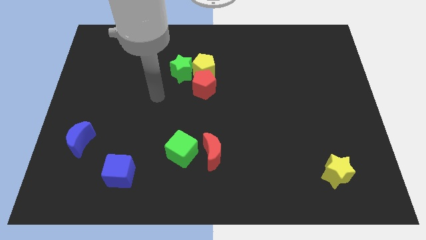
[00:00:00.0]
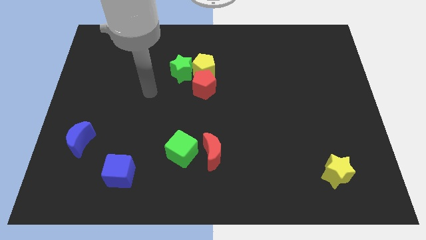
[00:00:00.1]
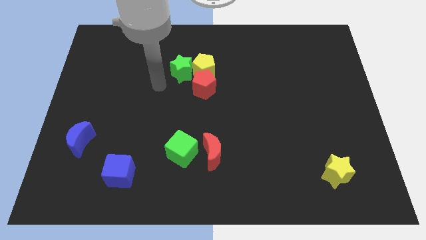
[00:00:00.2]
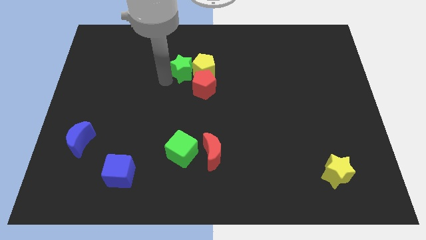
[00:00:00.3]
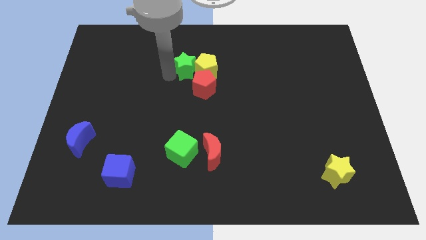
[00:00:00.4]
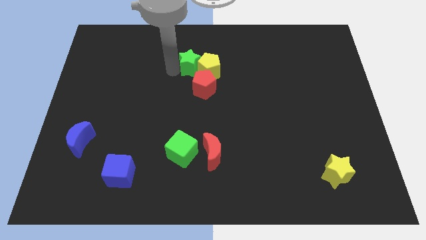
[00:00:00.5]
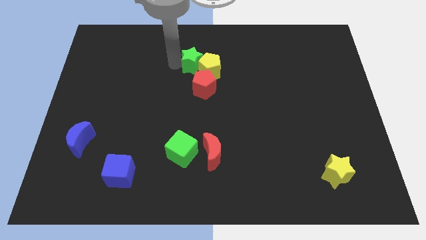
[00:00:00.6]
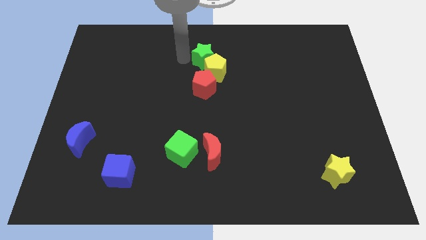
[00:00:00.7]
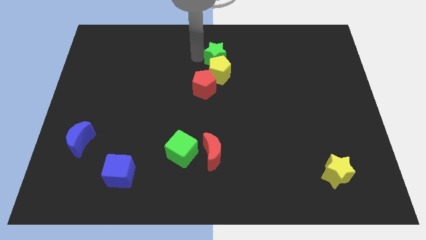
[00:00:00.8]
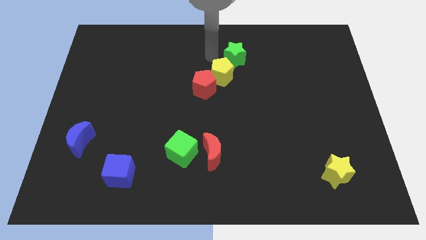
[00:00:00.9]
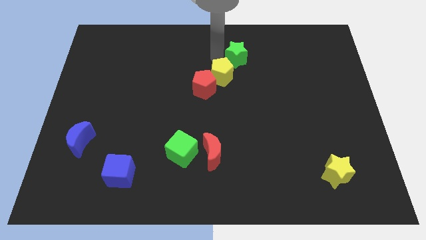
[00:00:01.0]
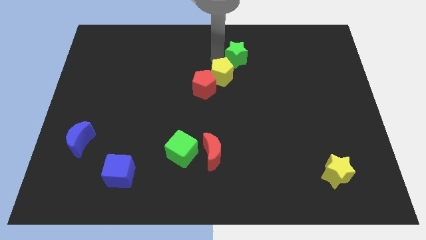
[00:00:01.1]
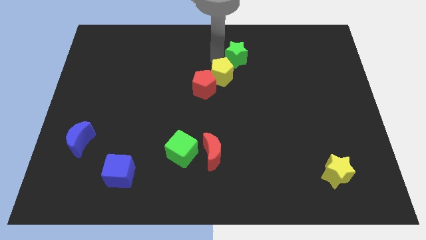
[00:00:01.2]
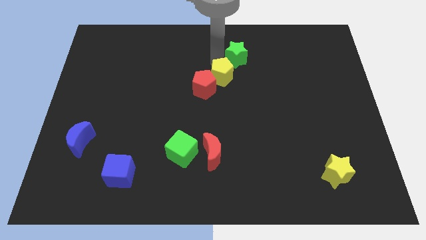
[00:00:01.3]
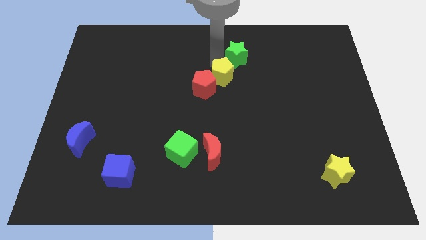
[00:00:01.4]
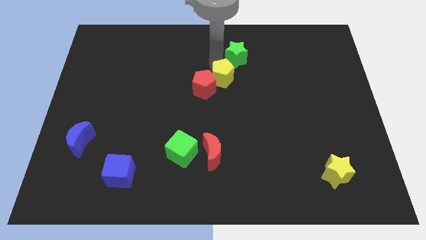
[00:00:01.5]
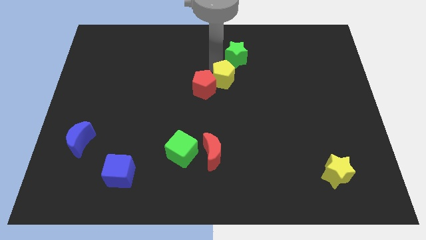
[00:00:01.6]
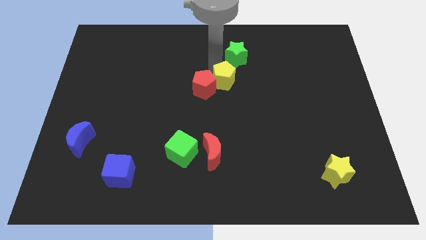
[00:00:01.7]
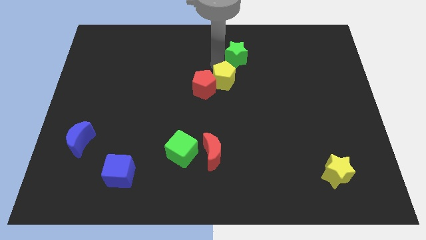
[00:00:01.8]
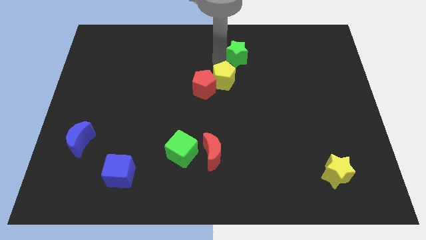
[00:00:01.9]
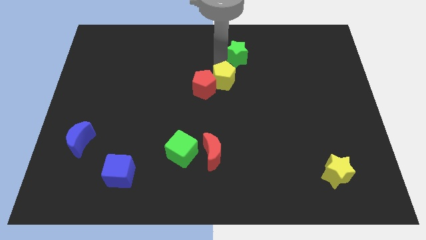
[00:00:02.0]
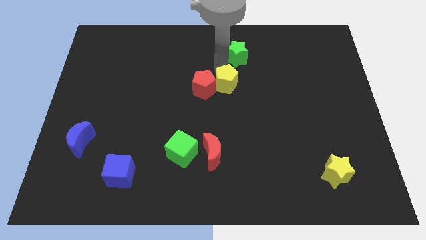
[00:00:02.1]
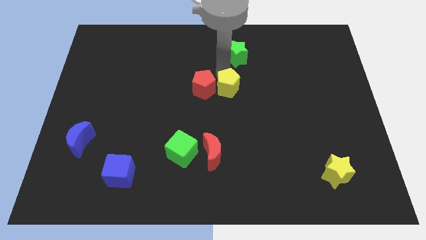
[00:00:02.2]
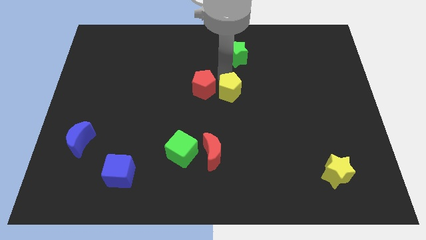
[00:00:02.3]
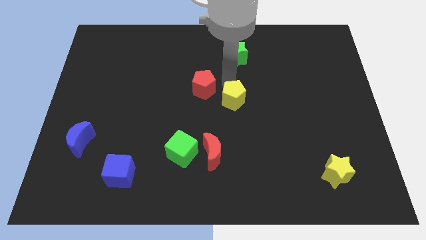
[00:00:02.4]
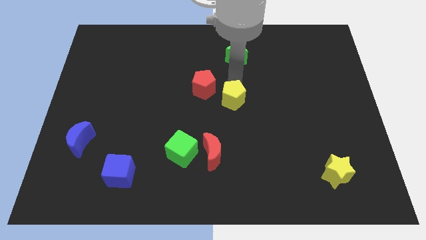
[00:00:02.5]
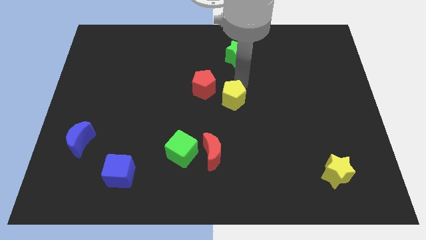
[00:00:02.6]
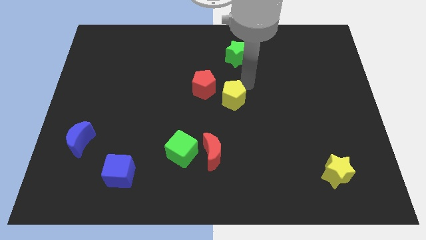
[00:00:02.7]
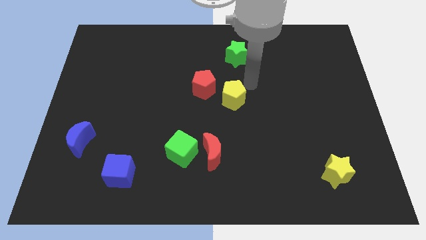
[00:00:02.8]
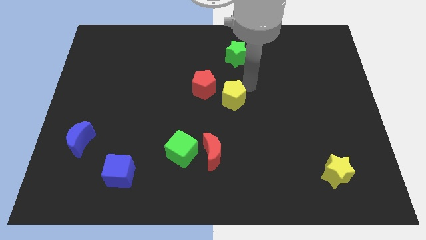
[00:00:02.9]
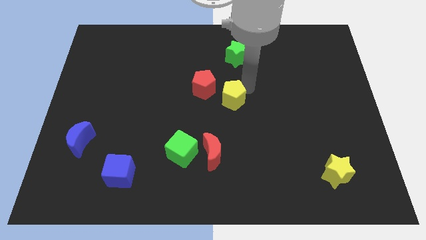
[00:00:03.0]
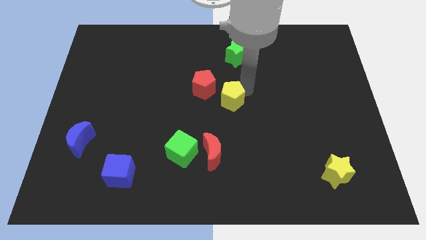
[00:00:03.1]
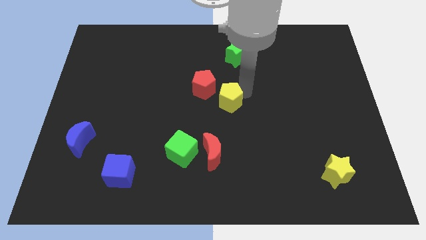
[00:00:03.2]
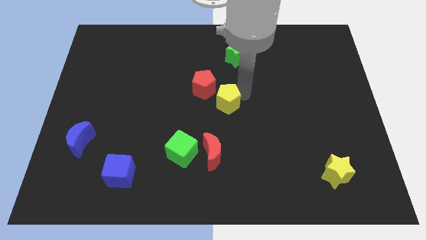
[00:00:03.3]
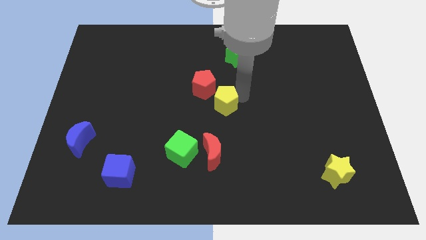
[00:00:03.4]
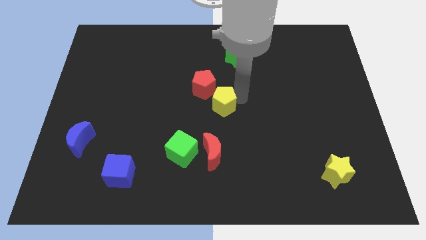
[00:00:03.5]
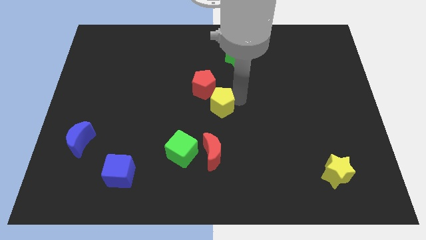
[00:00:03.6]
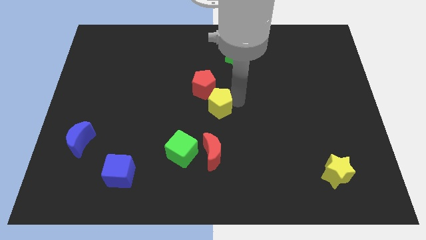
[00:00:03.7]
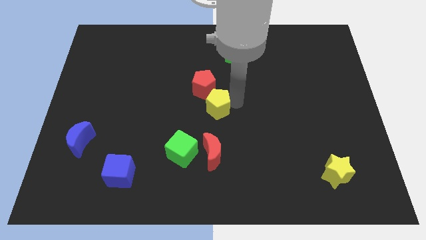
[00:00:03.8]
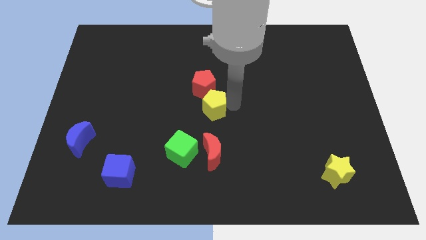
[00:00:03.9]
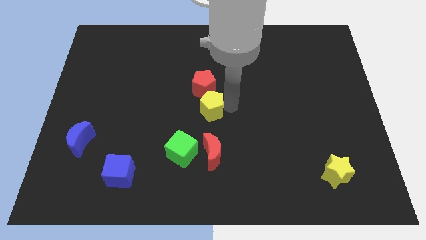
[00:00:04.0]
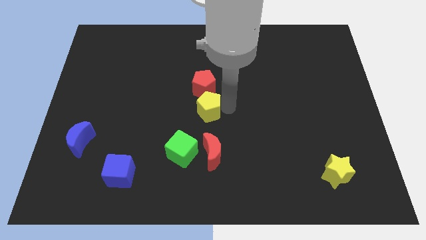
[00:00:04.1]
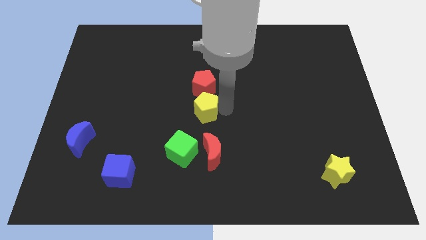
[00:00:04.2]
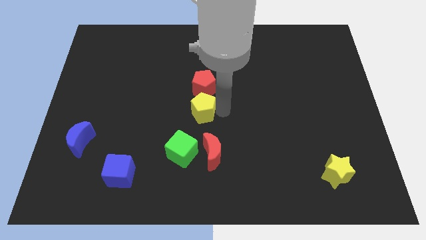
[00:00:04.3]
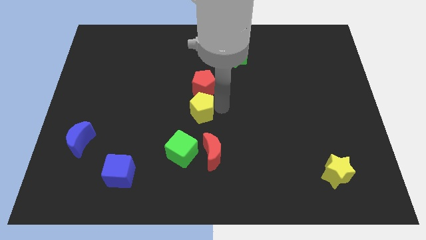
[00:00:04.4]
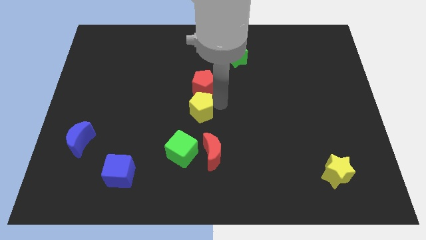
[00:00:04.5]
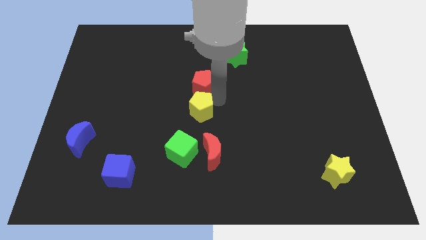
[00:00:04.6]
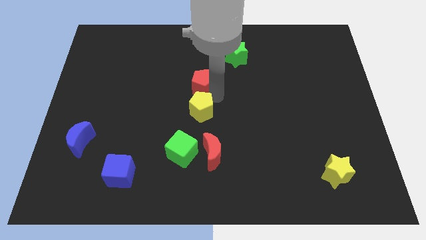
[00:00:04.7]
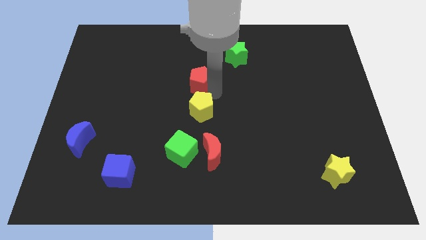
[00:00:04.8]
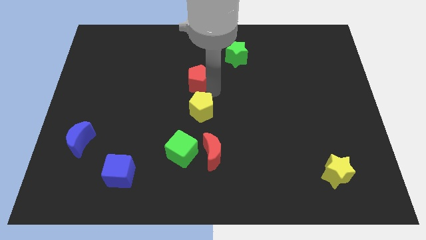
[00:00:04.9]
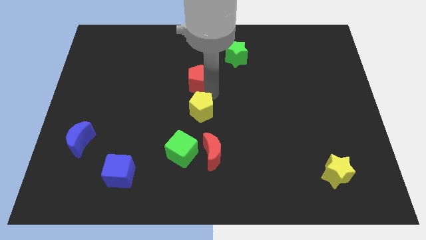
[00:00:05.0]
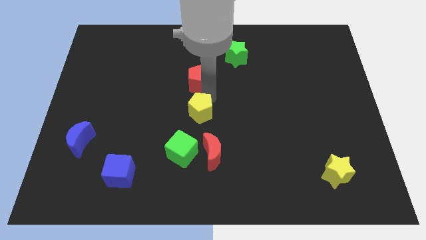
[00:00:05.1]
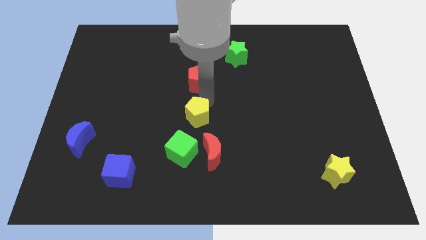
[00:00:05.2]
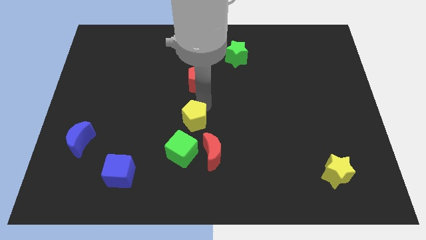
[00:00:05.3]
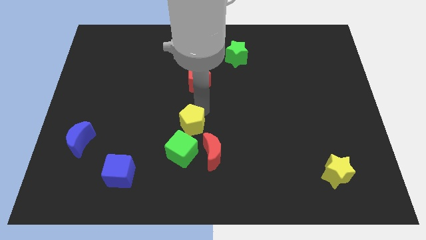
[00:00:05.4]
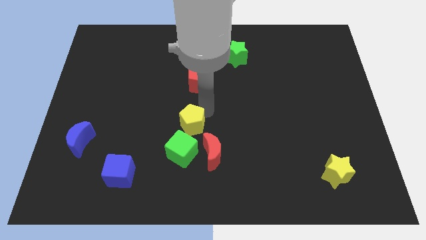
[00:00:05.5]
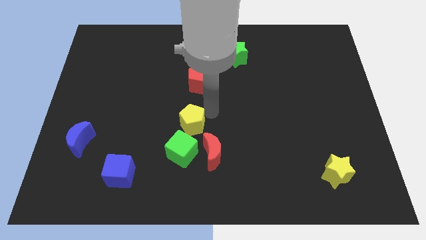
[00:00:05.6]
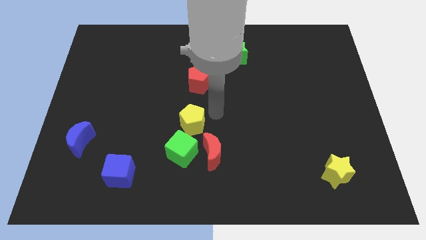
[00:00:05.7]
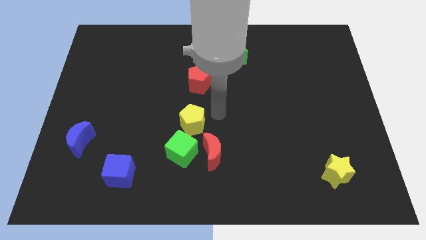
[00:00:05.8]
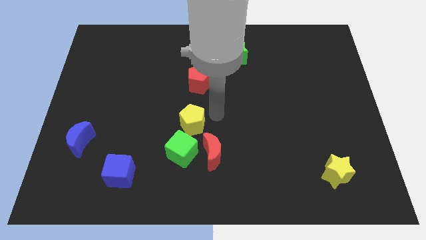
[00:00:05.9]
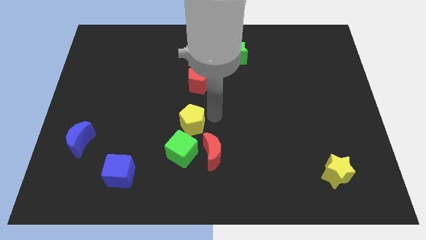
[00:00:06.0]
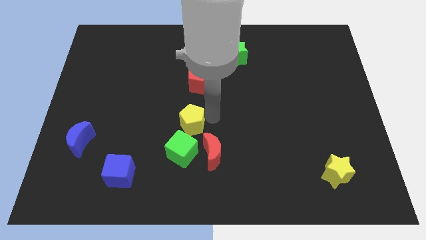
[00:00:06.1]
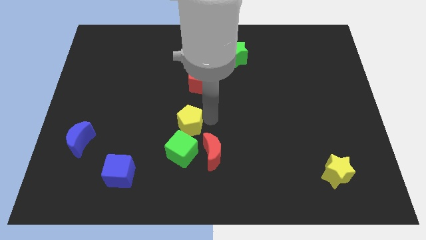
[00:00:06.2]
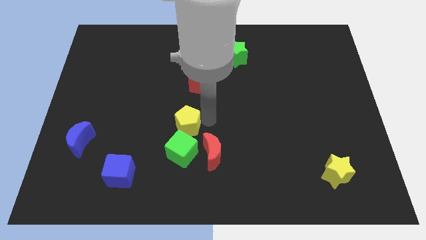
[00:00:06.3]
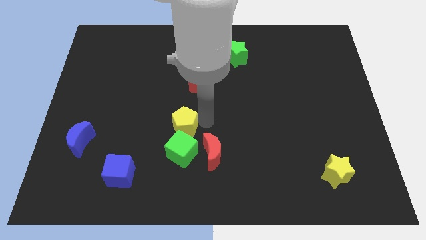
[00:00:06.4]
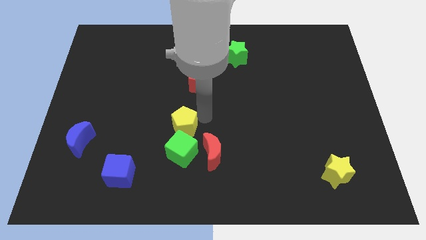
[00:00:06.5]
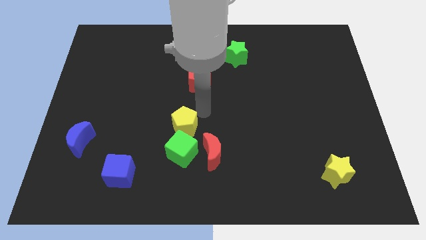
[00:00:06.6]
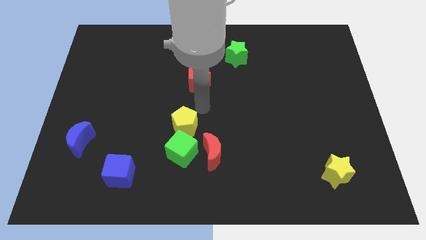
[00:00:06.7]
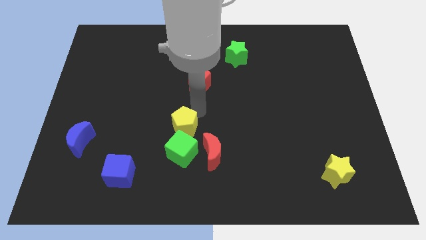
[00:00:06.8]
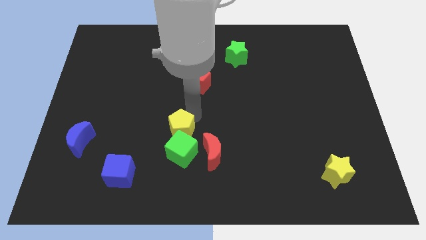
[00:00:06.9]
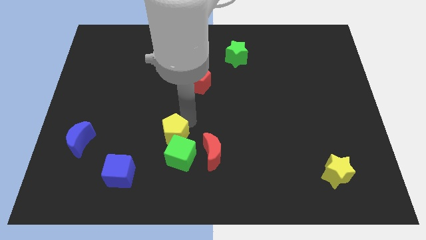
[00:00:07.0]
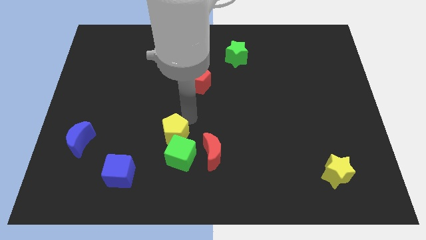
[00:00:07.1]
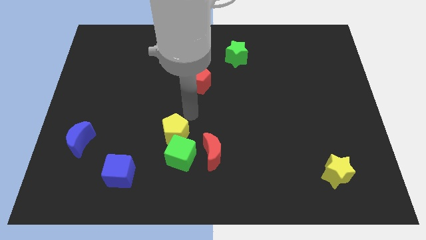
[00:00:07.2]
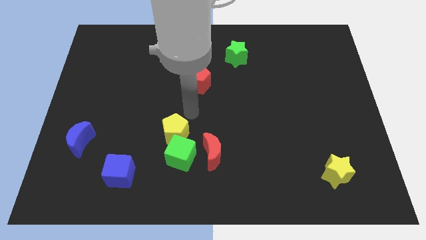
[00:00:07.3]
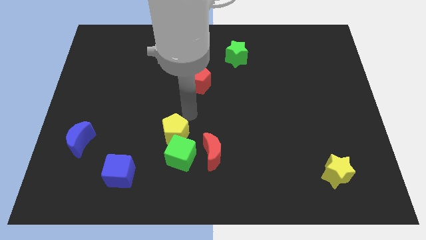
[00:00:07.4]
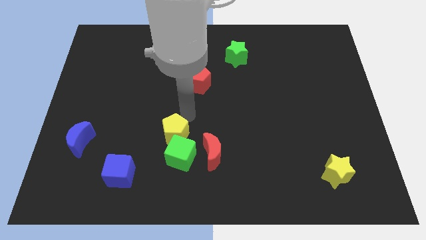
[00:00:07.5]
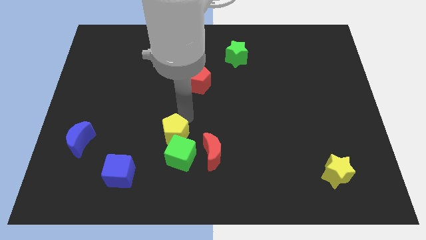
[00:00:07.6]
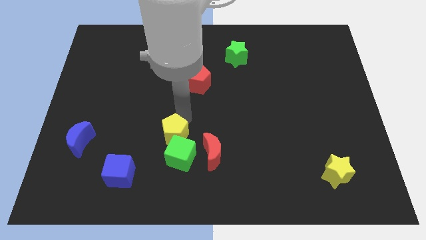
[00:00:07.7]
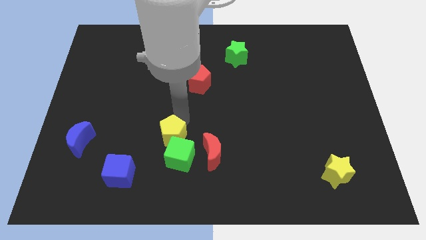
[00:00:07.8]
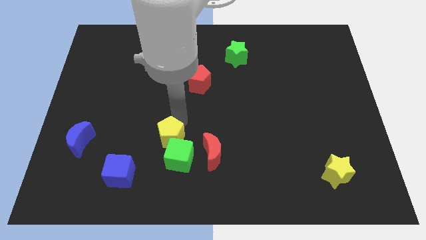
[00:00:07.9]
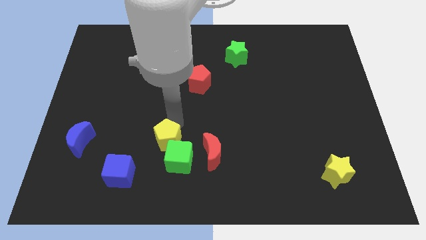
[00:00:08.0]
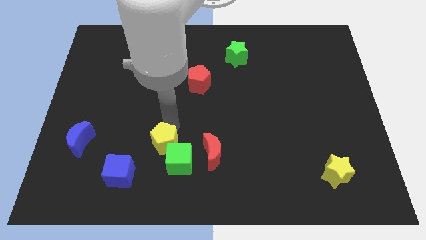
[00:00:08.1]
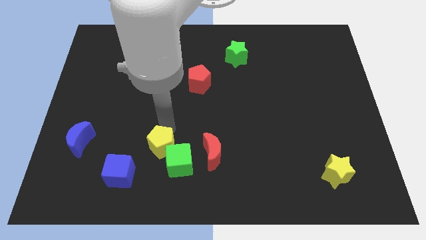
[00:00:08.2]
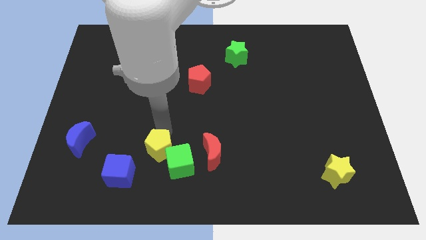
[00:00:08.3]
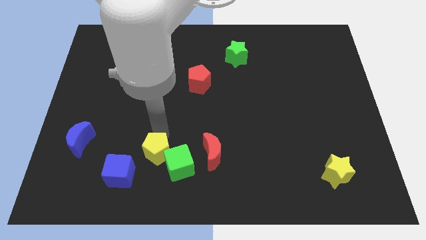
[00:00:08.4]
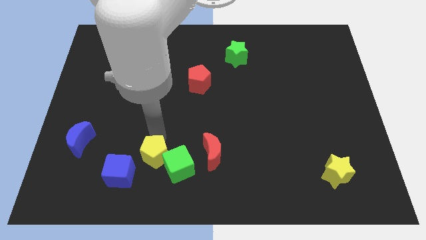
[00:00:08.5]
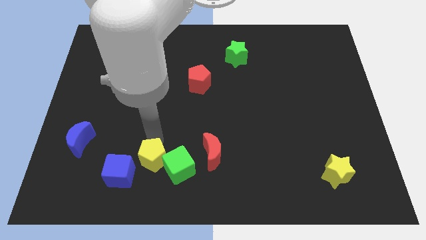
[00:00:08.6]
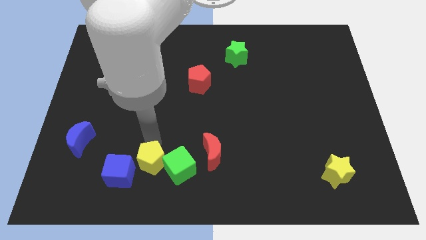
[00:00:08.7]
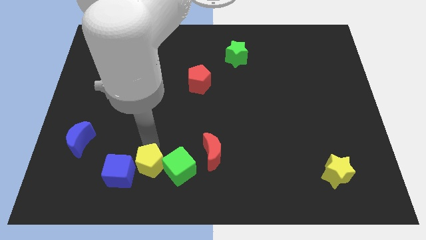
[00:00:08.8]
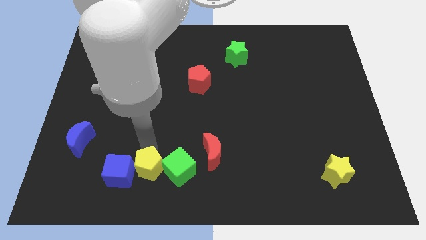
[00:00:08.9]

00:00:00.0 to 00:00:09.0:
put the yellow pentagon diagonally down and to the left of the green cube
